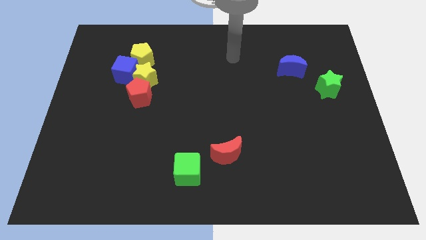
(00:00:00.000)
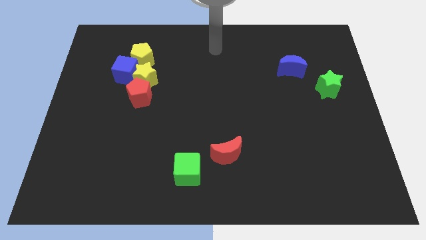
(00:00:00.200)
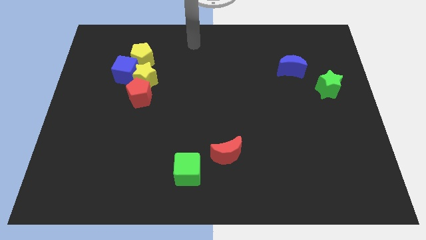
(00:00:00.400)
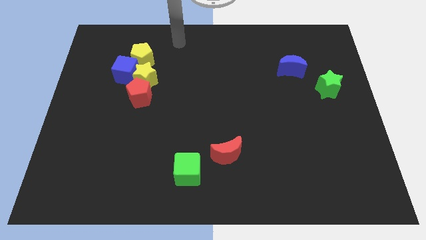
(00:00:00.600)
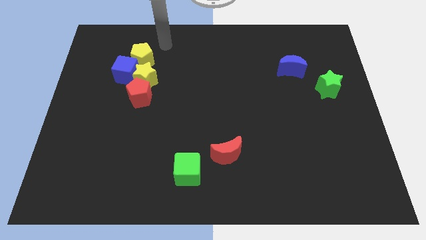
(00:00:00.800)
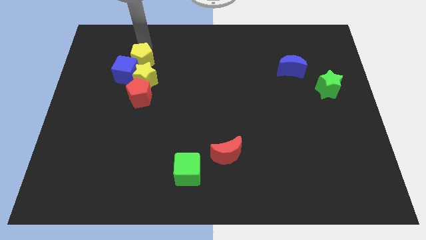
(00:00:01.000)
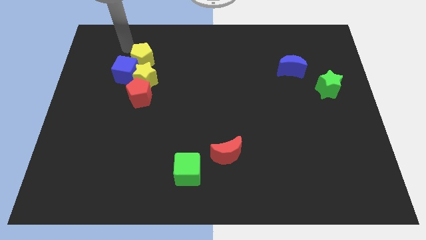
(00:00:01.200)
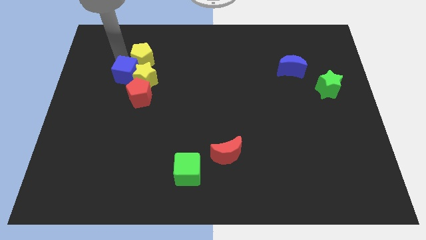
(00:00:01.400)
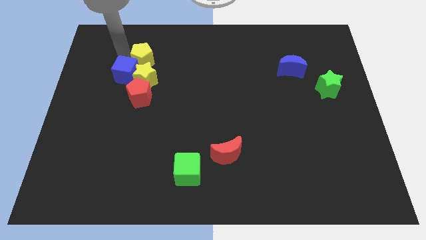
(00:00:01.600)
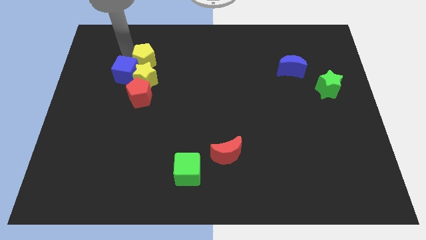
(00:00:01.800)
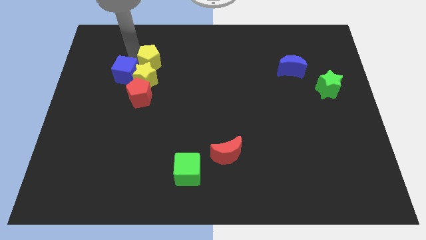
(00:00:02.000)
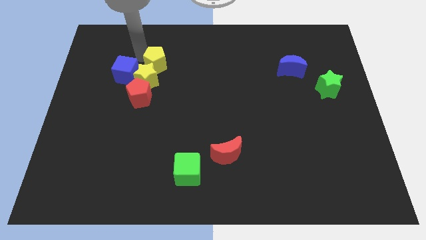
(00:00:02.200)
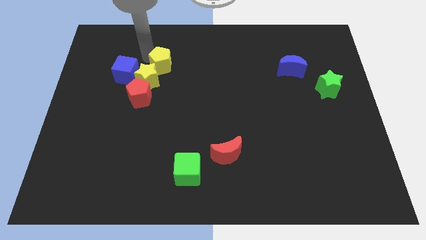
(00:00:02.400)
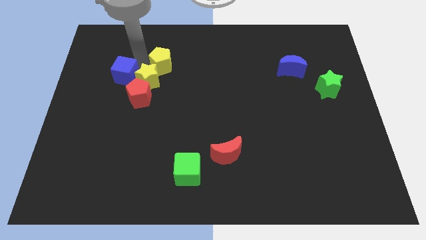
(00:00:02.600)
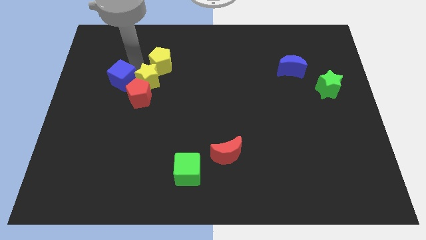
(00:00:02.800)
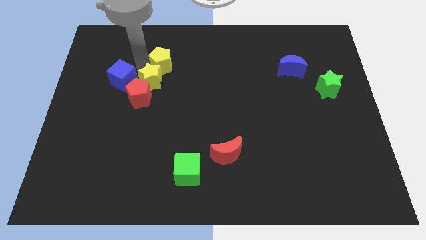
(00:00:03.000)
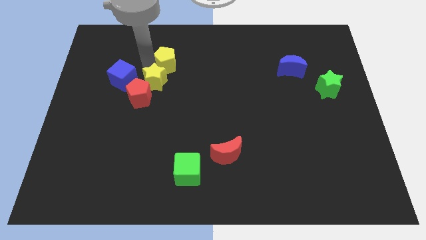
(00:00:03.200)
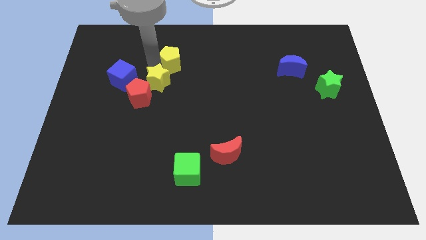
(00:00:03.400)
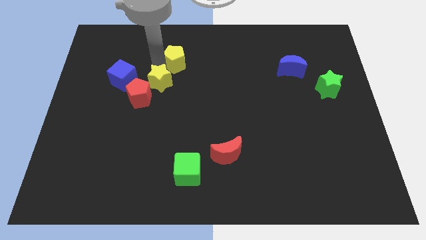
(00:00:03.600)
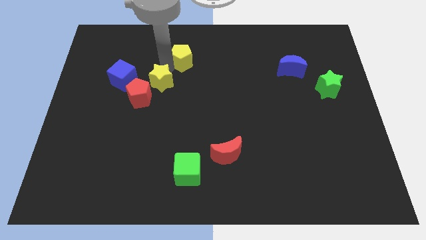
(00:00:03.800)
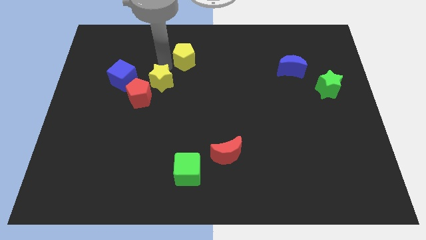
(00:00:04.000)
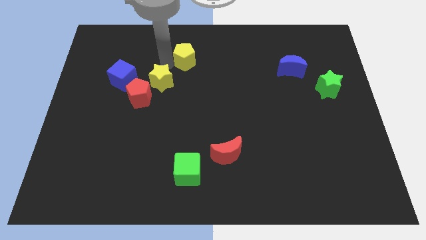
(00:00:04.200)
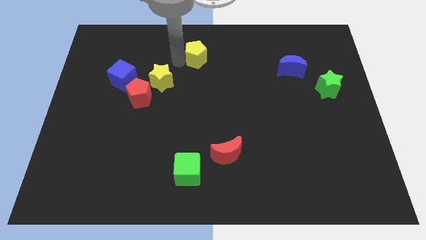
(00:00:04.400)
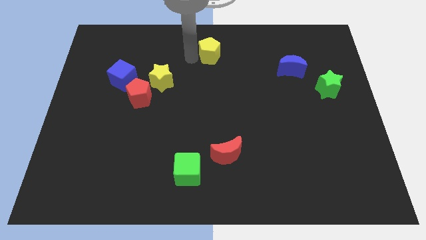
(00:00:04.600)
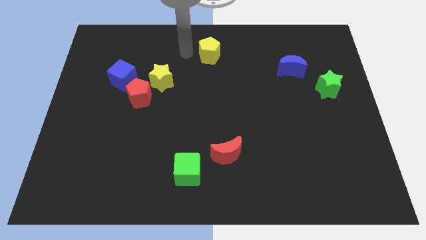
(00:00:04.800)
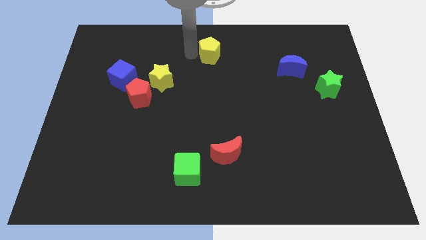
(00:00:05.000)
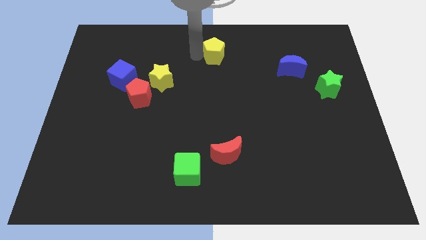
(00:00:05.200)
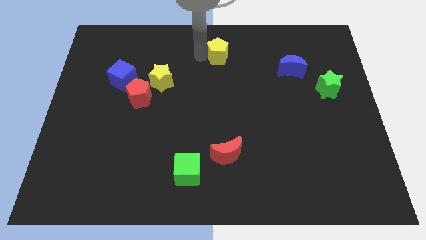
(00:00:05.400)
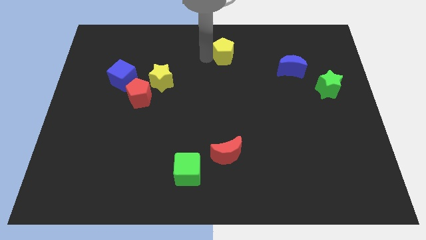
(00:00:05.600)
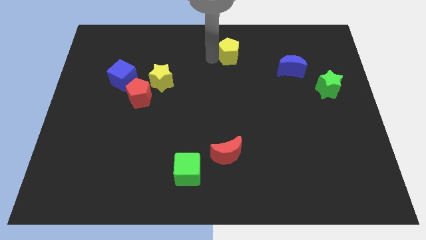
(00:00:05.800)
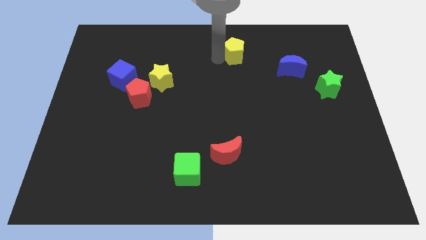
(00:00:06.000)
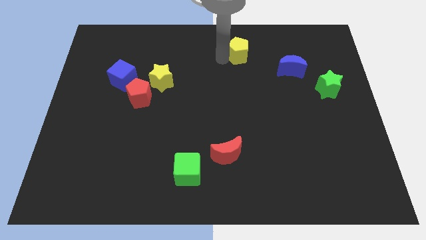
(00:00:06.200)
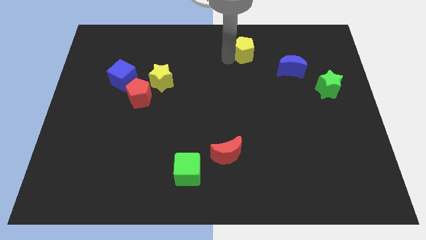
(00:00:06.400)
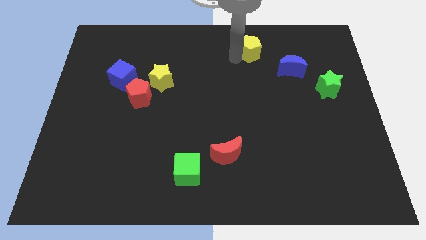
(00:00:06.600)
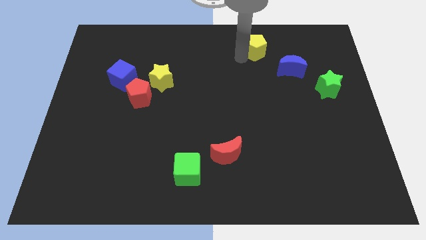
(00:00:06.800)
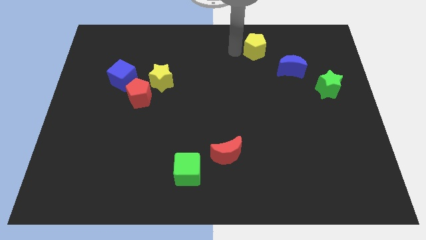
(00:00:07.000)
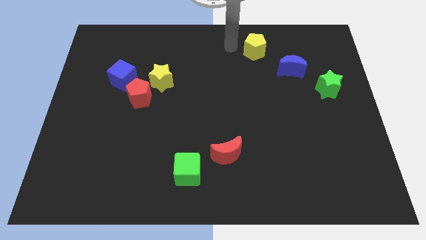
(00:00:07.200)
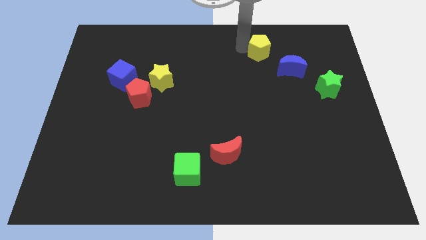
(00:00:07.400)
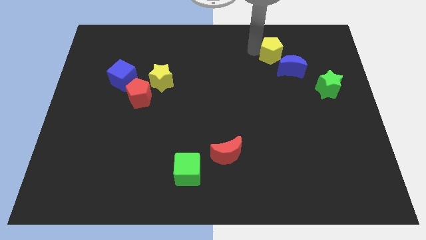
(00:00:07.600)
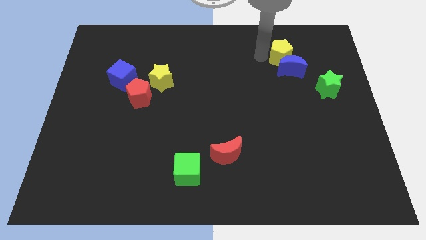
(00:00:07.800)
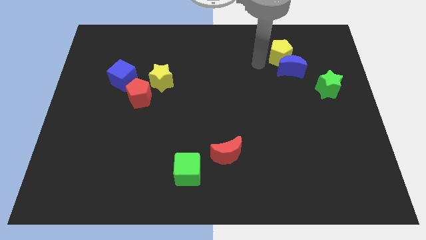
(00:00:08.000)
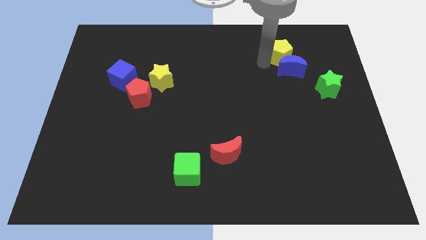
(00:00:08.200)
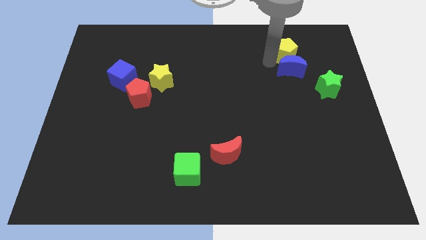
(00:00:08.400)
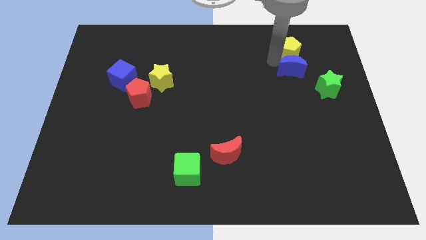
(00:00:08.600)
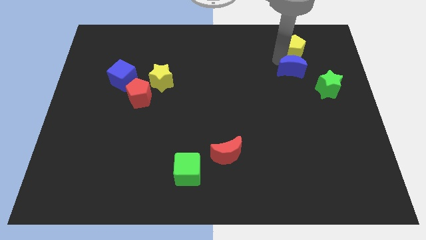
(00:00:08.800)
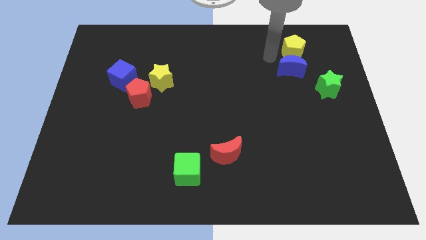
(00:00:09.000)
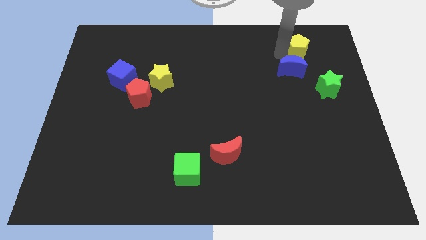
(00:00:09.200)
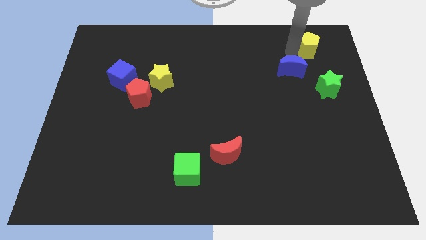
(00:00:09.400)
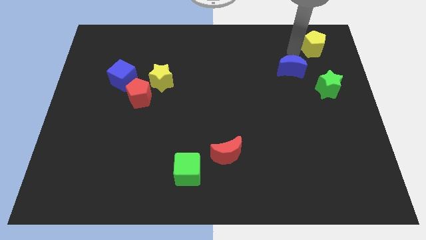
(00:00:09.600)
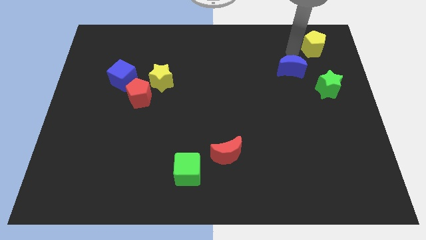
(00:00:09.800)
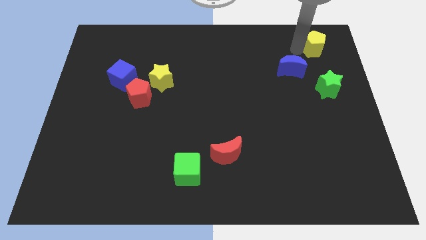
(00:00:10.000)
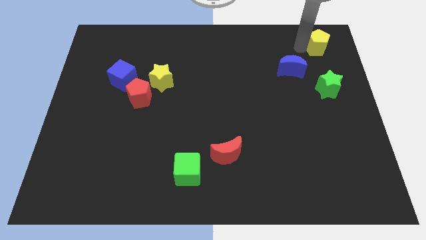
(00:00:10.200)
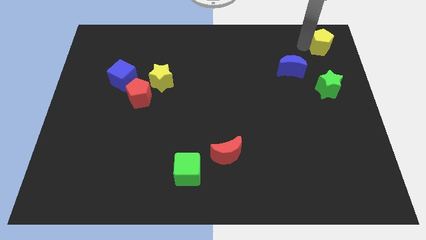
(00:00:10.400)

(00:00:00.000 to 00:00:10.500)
slide the yellow pentagon to the top right
